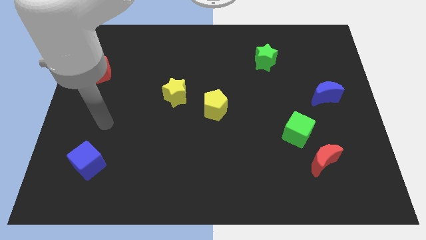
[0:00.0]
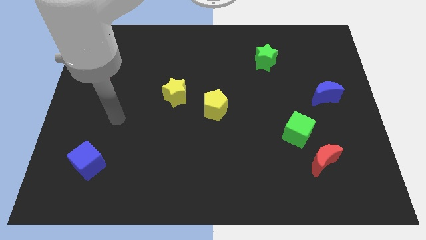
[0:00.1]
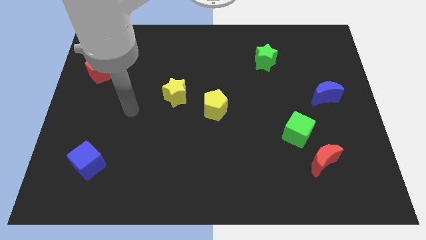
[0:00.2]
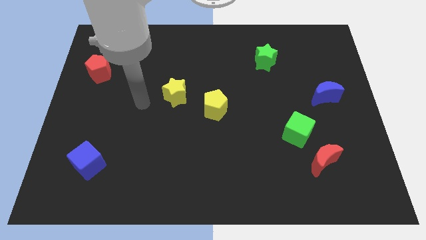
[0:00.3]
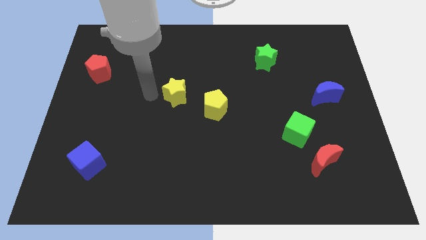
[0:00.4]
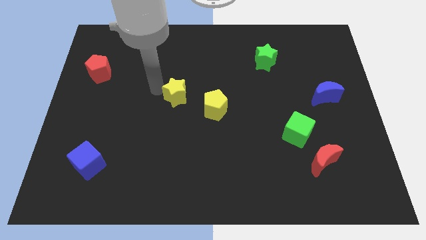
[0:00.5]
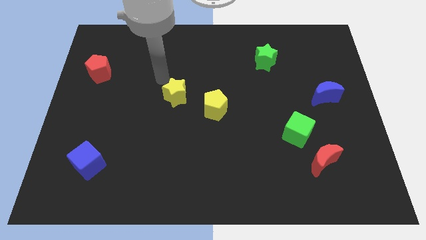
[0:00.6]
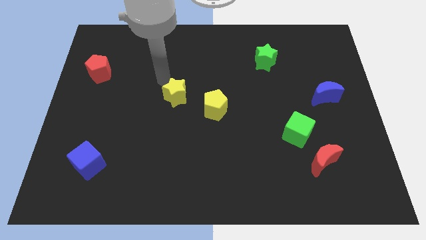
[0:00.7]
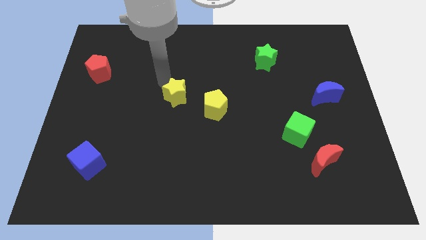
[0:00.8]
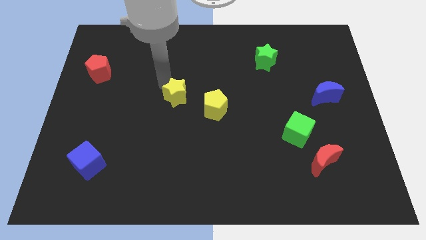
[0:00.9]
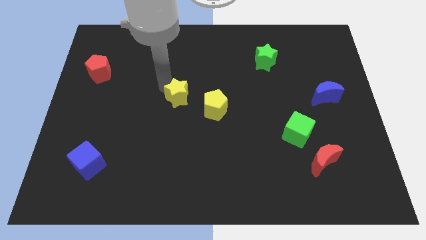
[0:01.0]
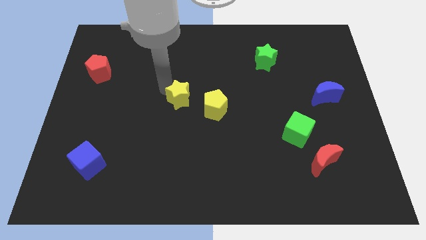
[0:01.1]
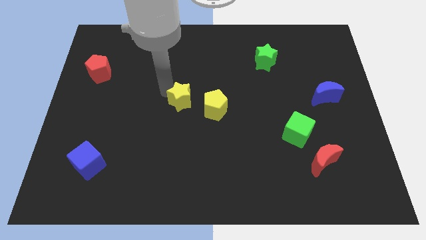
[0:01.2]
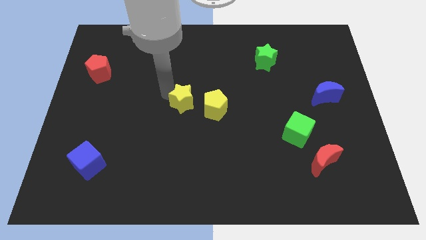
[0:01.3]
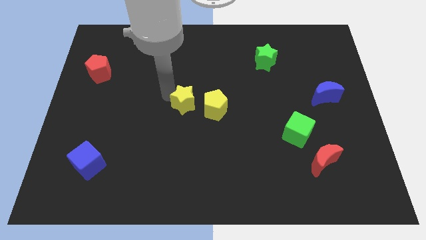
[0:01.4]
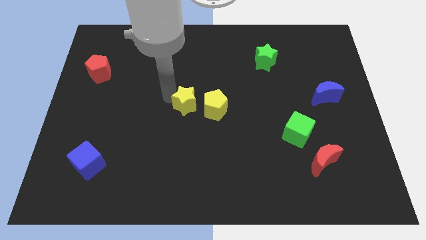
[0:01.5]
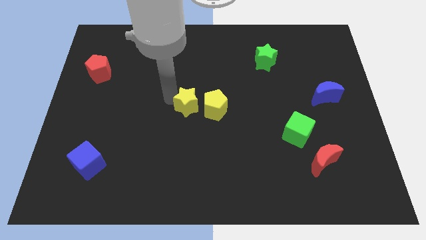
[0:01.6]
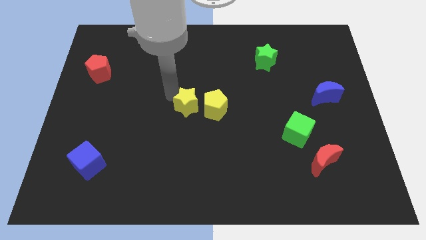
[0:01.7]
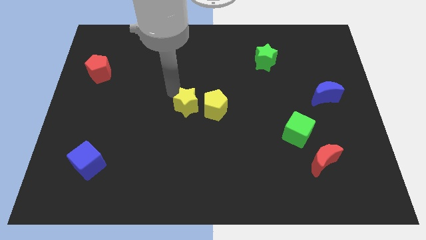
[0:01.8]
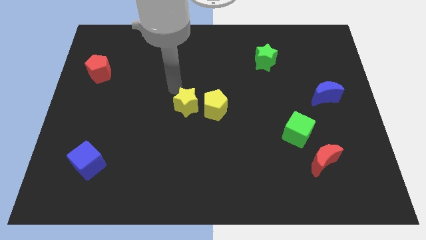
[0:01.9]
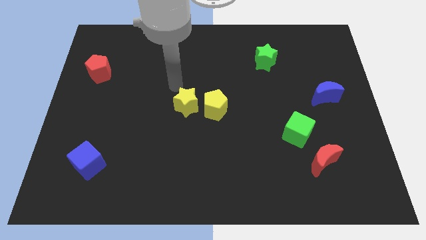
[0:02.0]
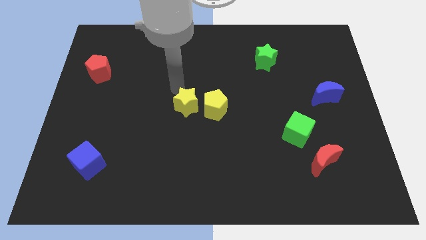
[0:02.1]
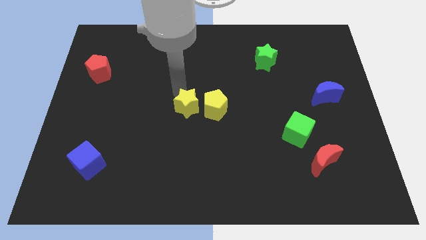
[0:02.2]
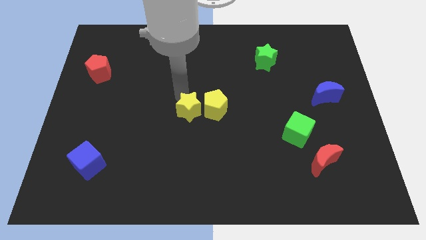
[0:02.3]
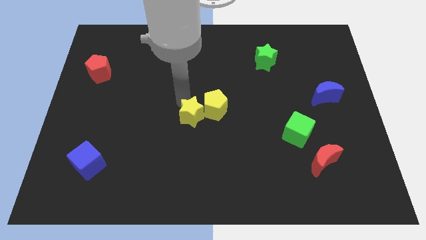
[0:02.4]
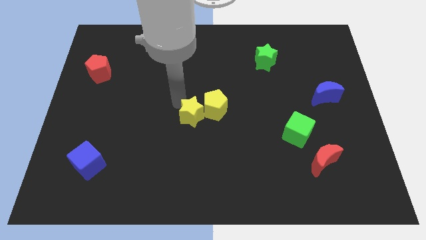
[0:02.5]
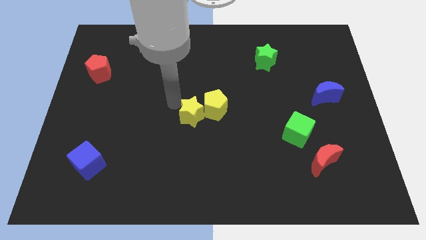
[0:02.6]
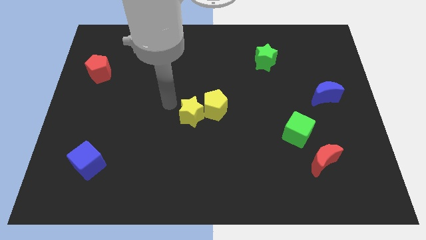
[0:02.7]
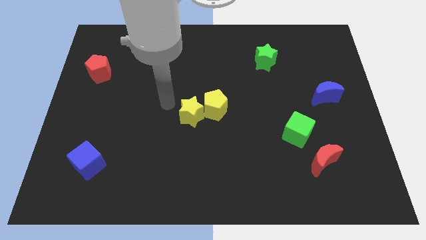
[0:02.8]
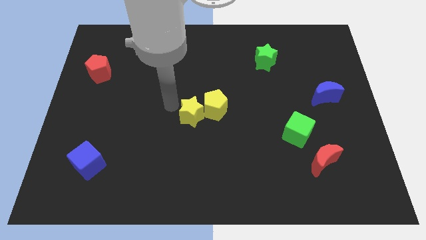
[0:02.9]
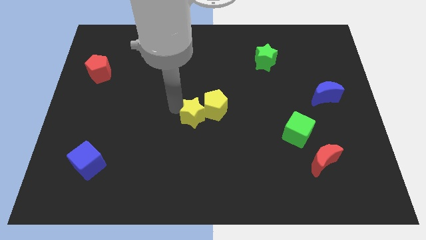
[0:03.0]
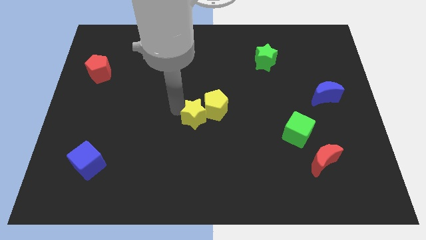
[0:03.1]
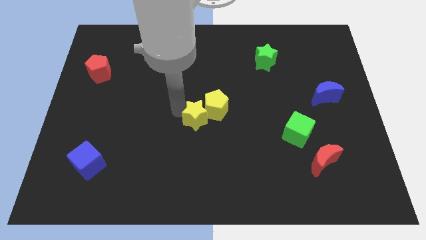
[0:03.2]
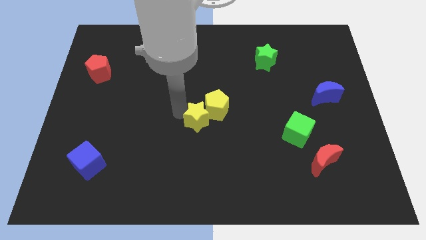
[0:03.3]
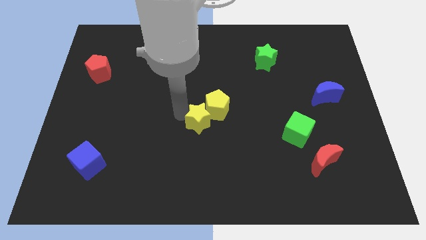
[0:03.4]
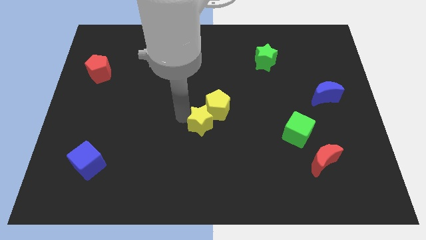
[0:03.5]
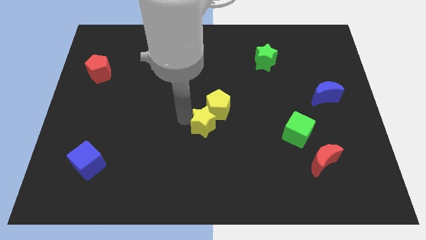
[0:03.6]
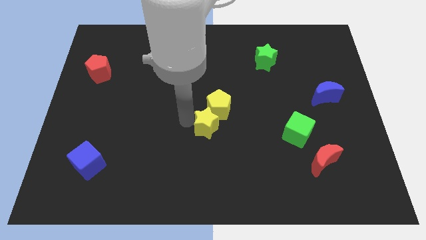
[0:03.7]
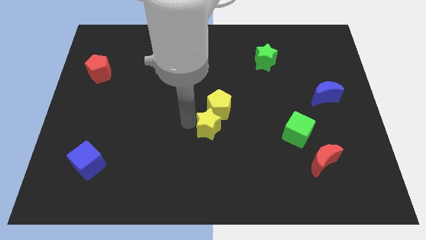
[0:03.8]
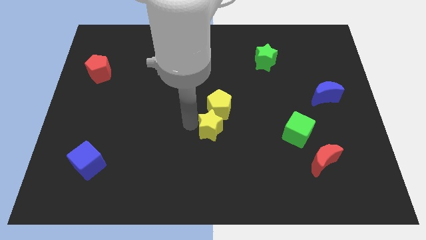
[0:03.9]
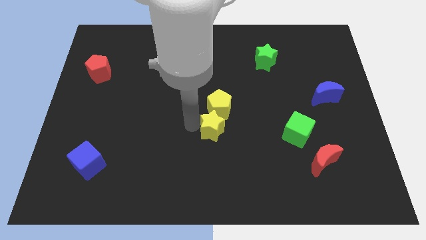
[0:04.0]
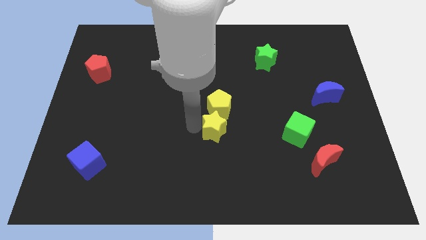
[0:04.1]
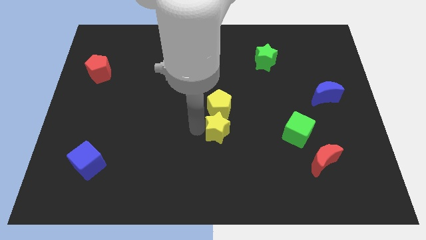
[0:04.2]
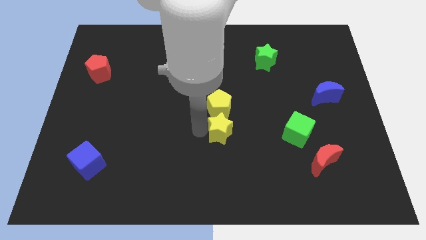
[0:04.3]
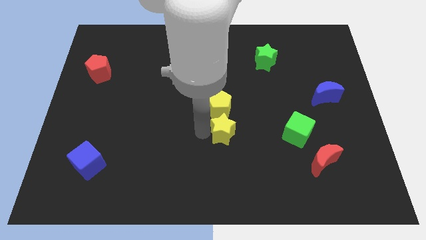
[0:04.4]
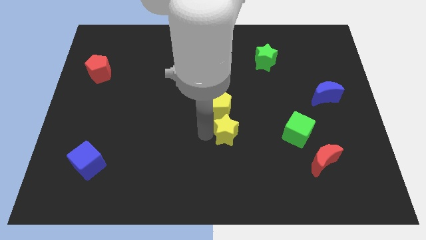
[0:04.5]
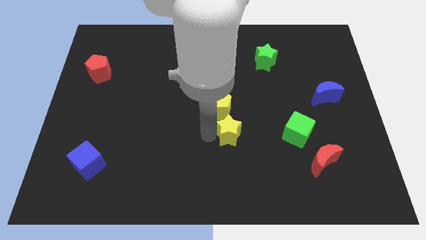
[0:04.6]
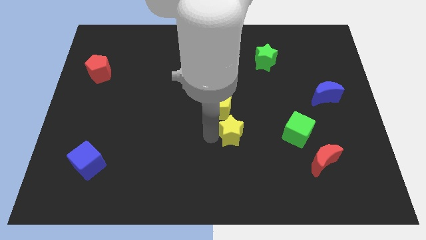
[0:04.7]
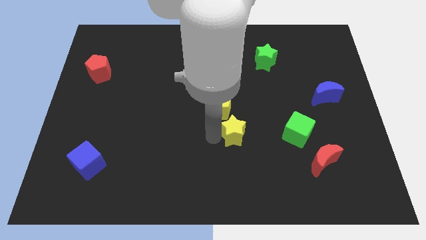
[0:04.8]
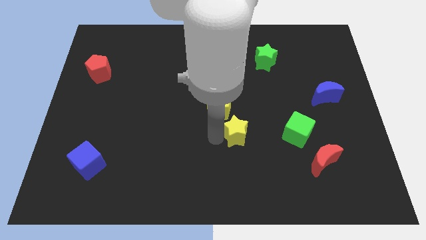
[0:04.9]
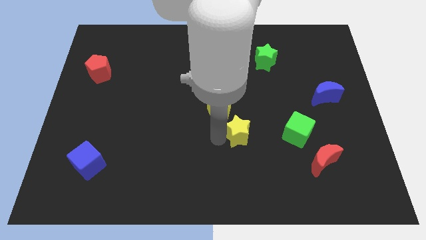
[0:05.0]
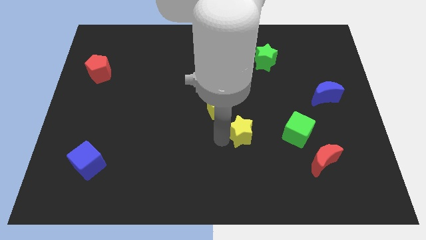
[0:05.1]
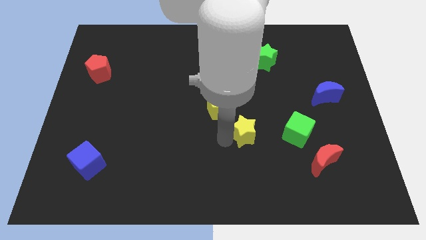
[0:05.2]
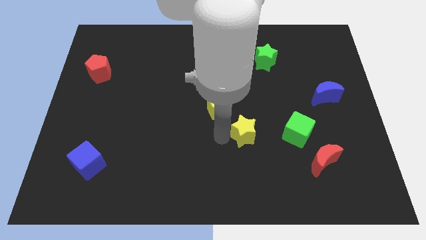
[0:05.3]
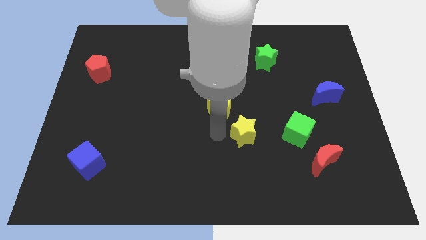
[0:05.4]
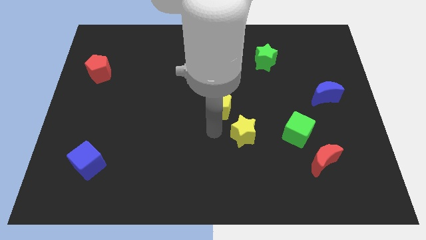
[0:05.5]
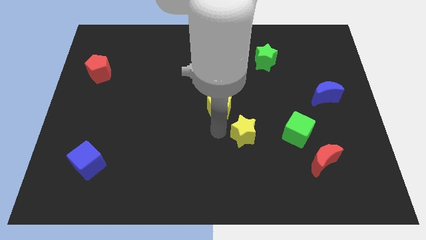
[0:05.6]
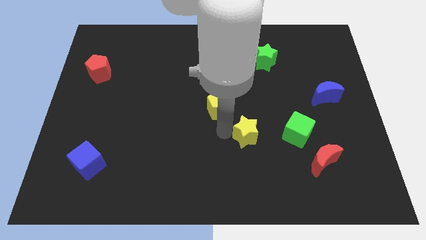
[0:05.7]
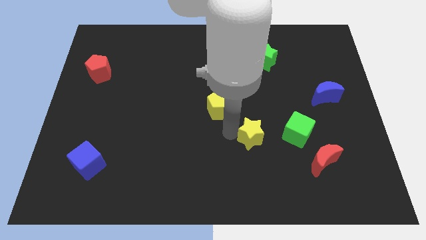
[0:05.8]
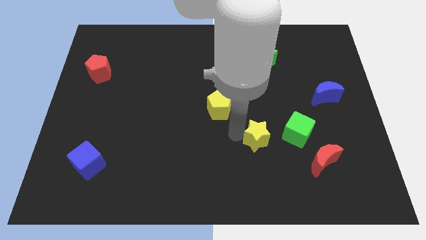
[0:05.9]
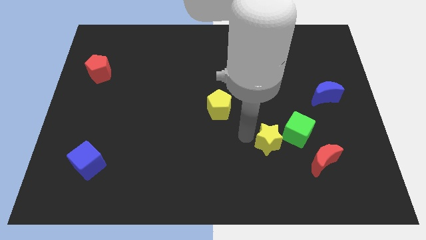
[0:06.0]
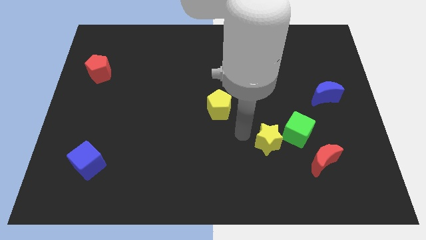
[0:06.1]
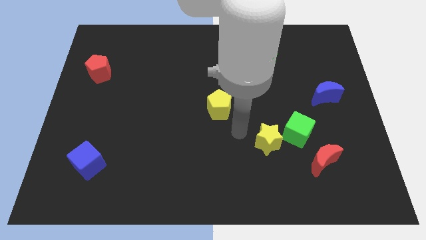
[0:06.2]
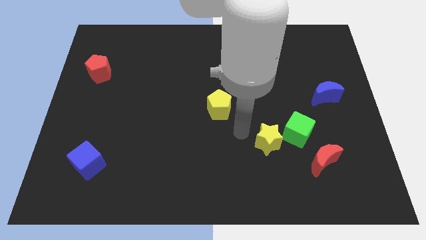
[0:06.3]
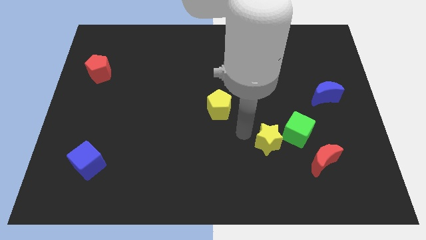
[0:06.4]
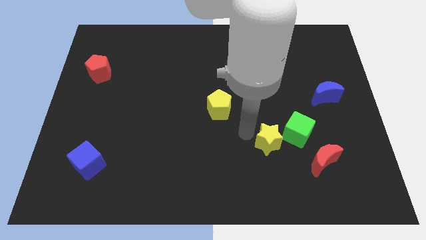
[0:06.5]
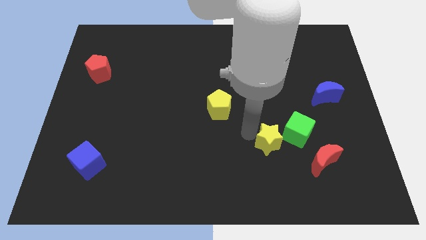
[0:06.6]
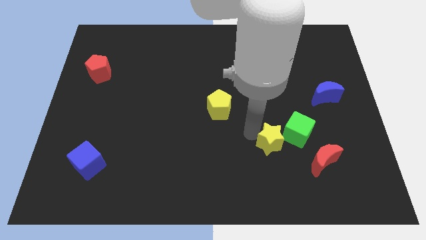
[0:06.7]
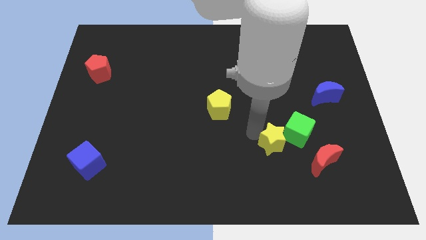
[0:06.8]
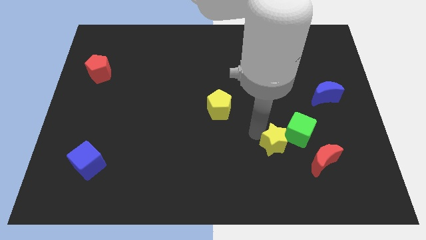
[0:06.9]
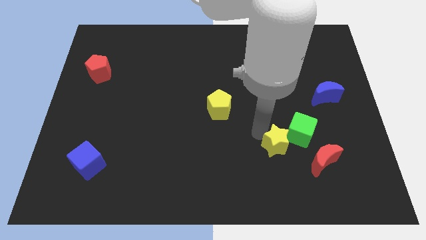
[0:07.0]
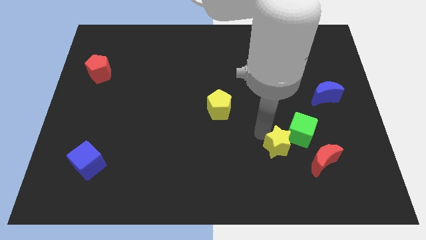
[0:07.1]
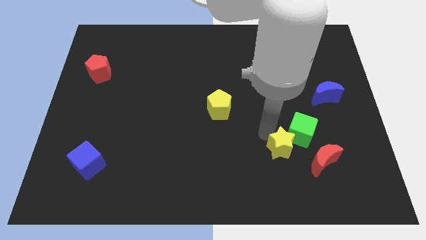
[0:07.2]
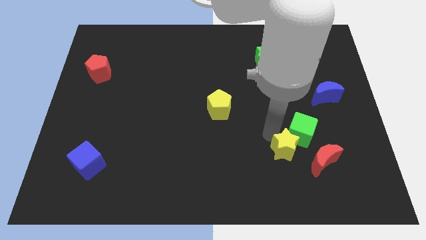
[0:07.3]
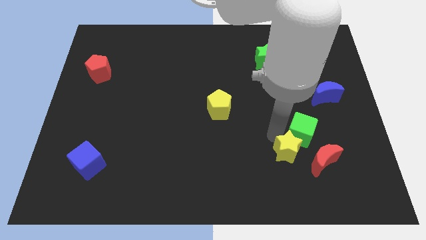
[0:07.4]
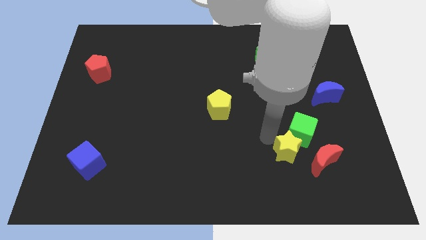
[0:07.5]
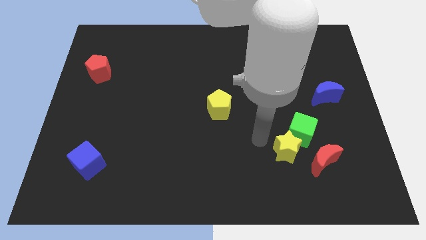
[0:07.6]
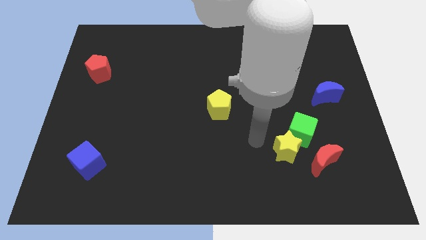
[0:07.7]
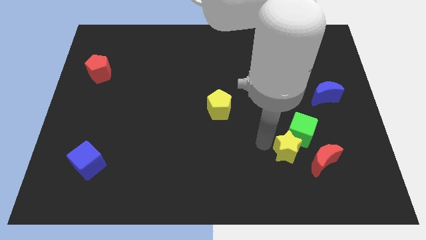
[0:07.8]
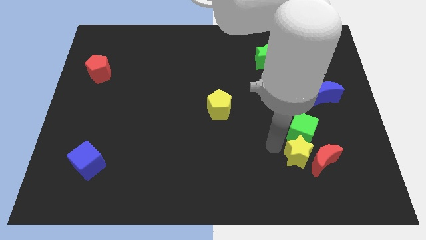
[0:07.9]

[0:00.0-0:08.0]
slide the yellow star to the red moon

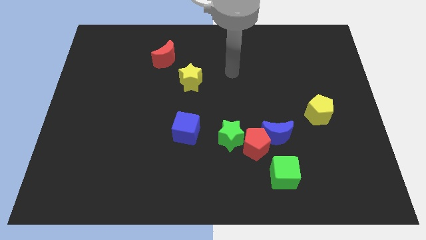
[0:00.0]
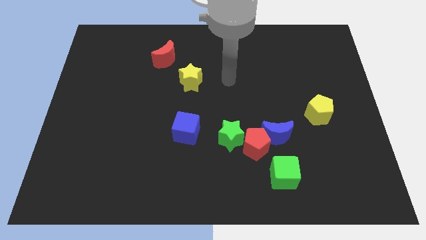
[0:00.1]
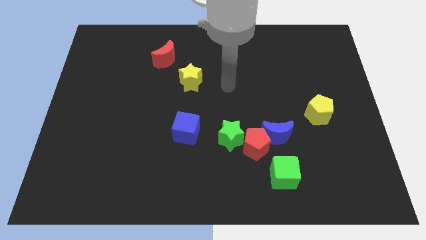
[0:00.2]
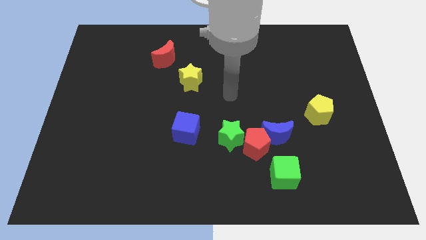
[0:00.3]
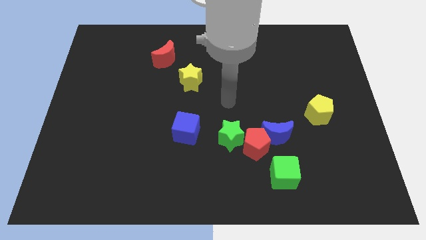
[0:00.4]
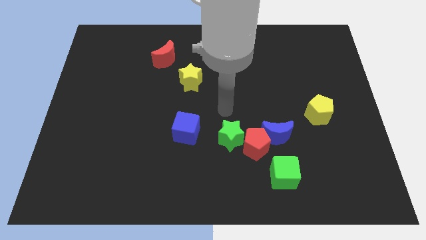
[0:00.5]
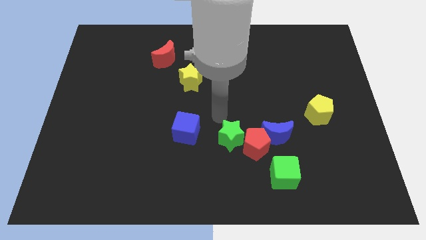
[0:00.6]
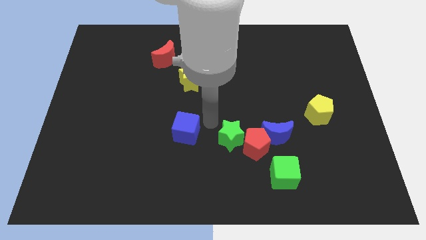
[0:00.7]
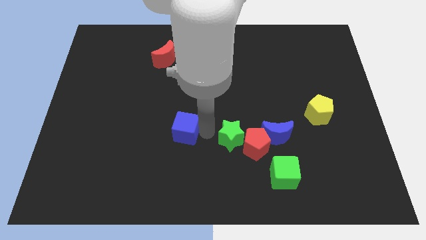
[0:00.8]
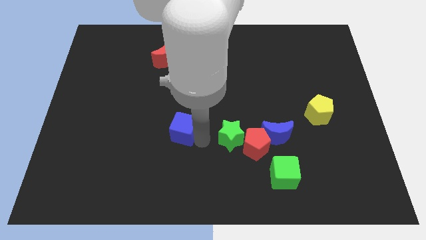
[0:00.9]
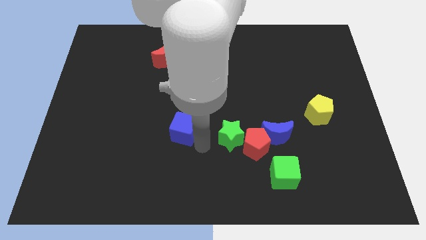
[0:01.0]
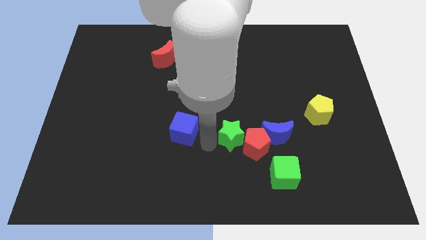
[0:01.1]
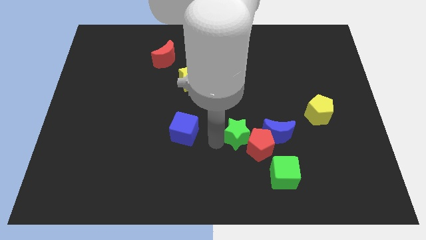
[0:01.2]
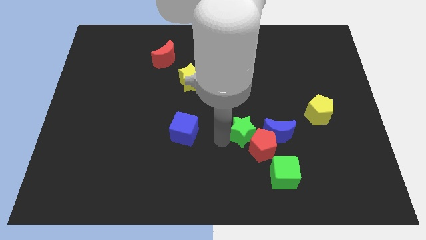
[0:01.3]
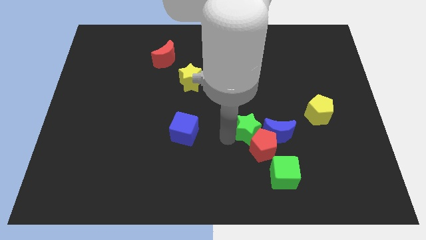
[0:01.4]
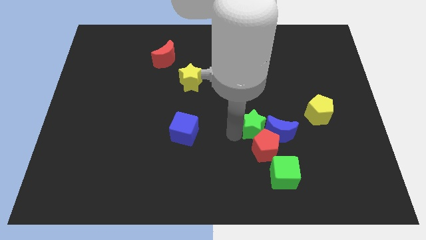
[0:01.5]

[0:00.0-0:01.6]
push the green star close to the blue moon
